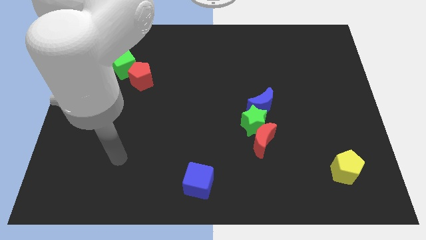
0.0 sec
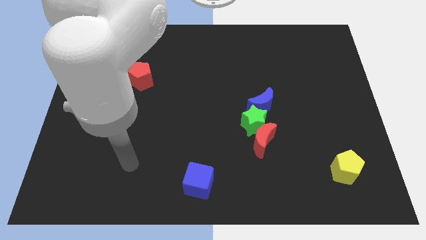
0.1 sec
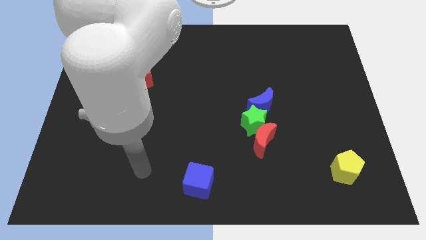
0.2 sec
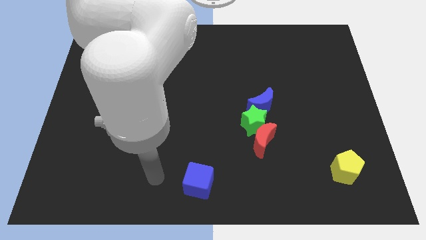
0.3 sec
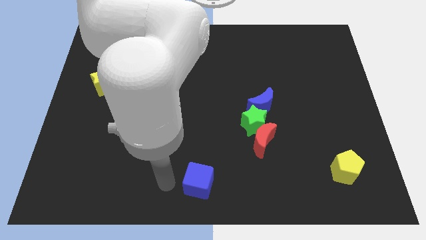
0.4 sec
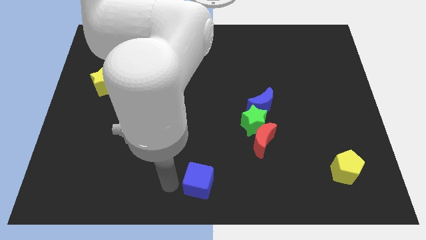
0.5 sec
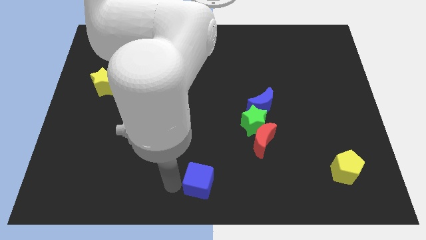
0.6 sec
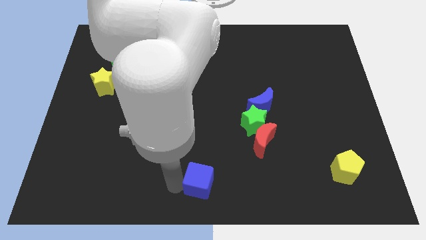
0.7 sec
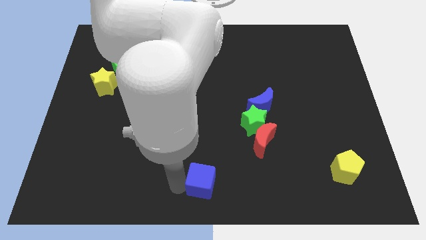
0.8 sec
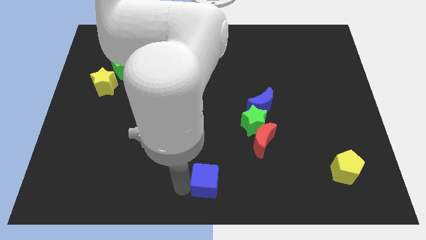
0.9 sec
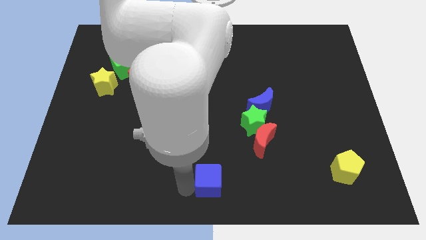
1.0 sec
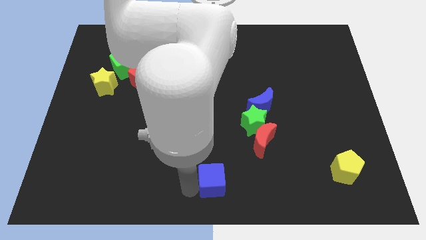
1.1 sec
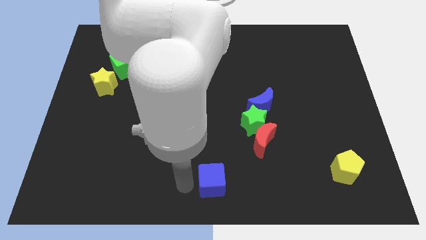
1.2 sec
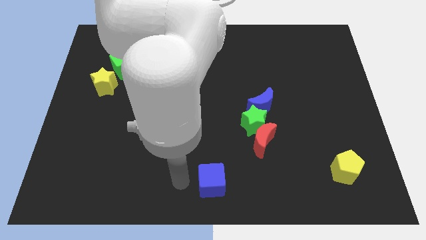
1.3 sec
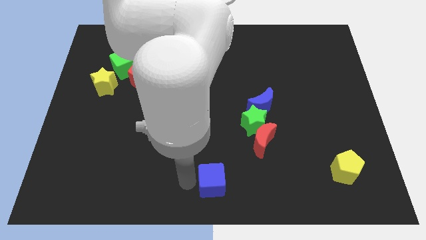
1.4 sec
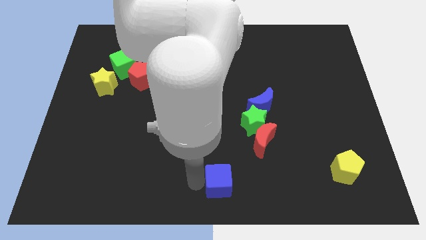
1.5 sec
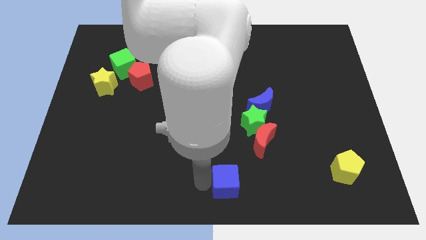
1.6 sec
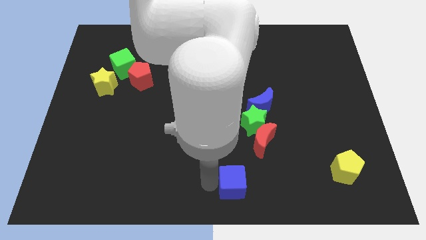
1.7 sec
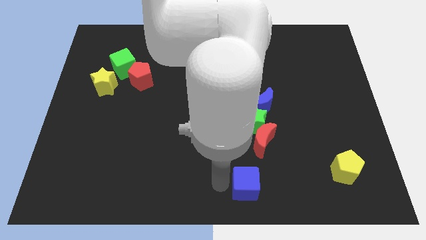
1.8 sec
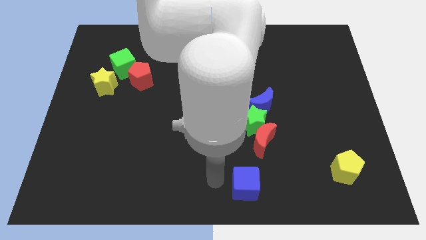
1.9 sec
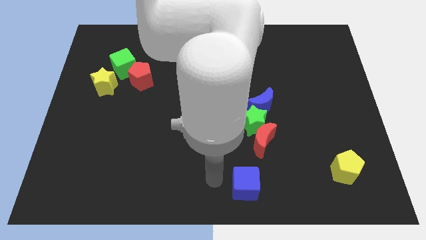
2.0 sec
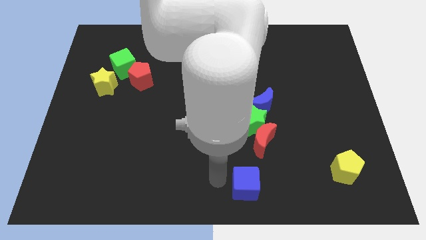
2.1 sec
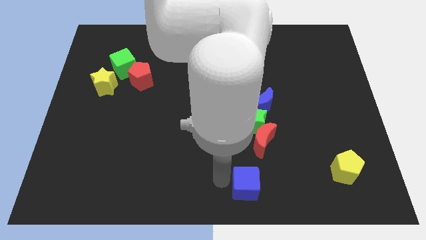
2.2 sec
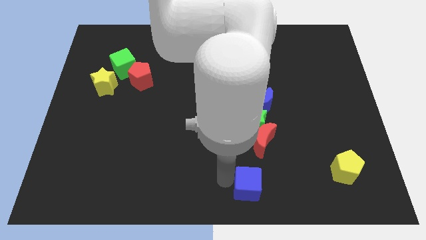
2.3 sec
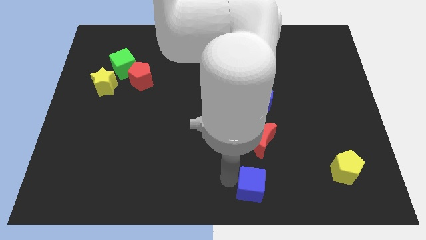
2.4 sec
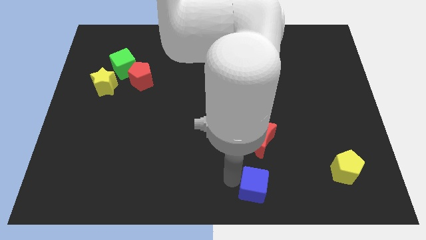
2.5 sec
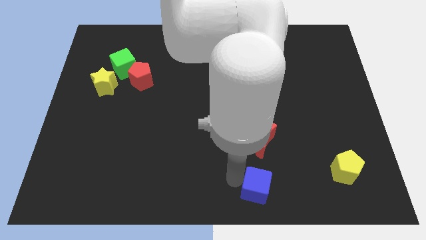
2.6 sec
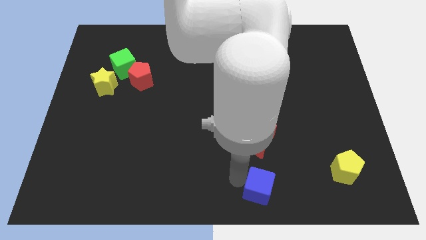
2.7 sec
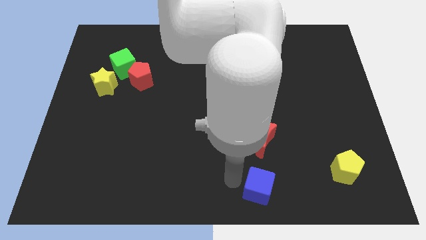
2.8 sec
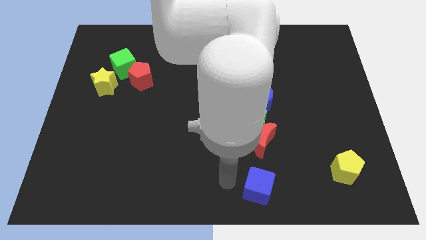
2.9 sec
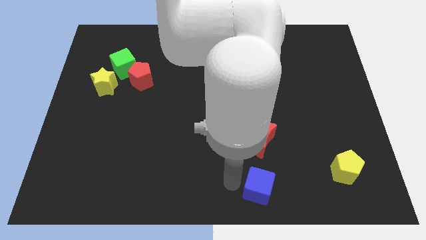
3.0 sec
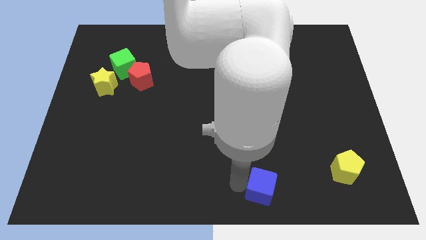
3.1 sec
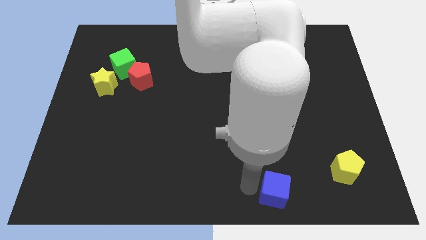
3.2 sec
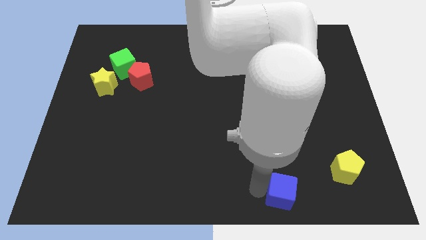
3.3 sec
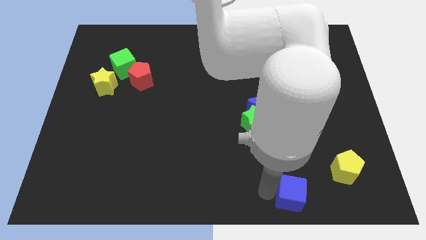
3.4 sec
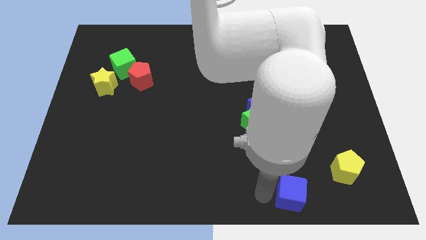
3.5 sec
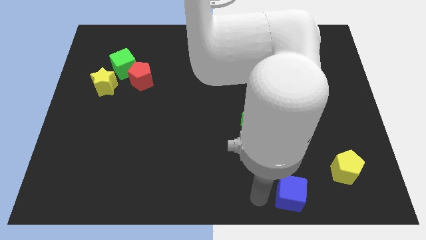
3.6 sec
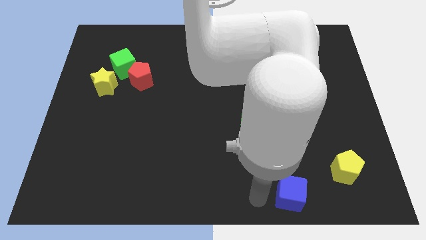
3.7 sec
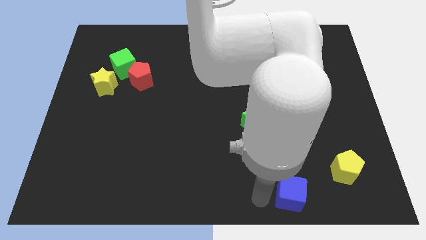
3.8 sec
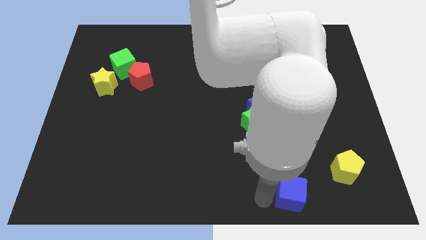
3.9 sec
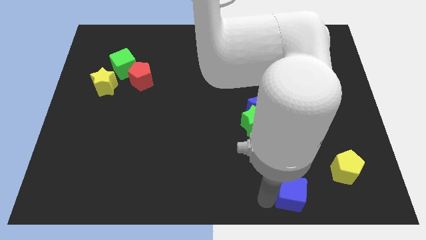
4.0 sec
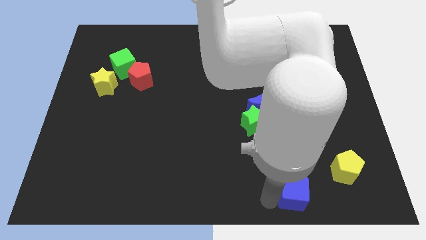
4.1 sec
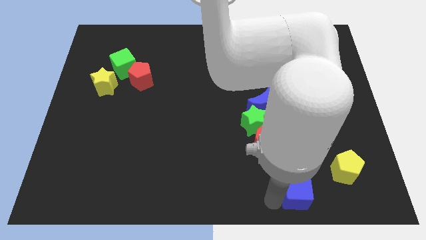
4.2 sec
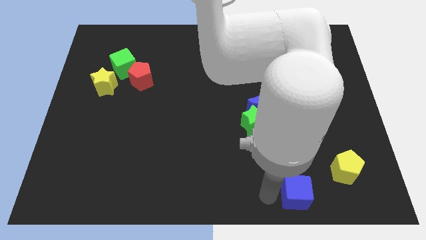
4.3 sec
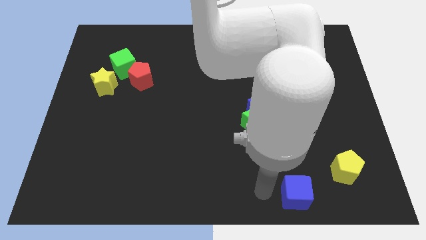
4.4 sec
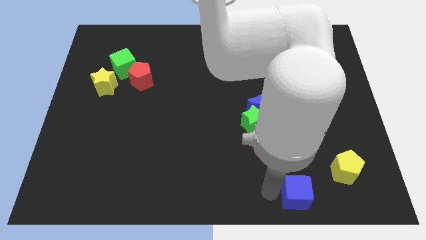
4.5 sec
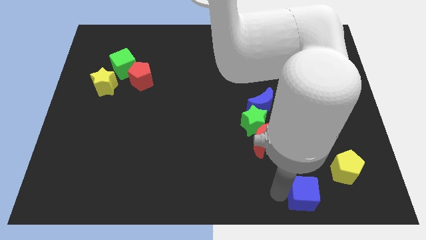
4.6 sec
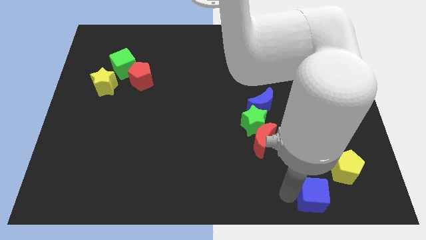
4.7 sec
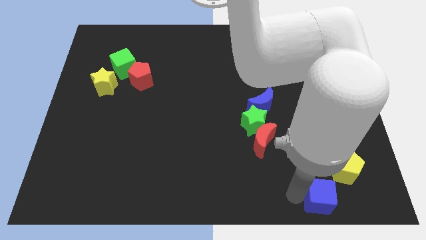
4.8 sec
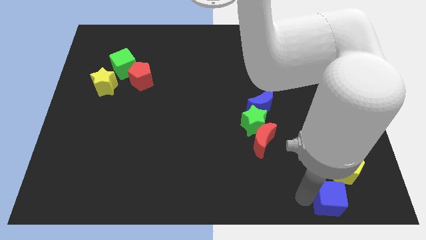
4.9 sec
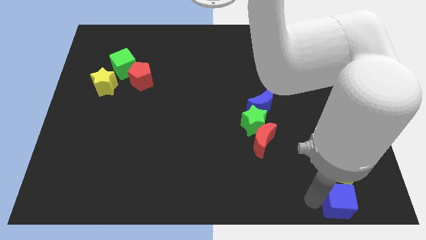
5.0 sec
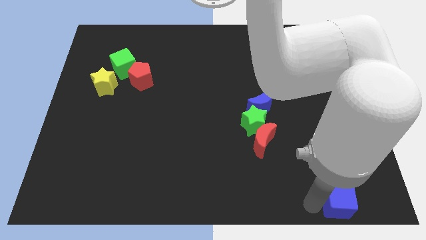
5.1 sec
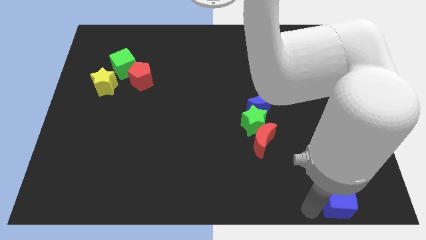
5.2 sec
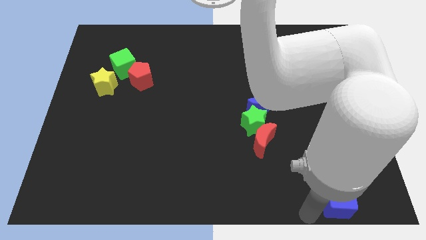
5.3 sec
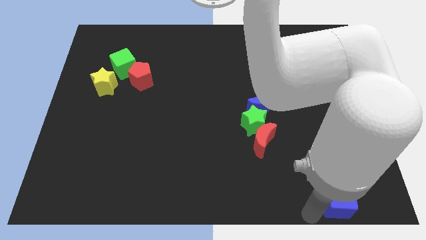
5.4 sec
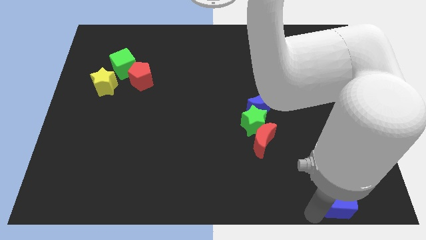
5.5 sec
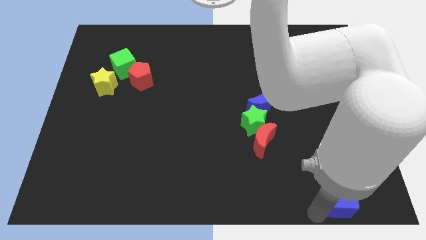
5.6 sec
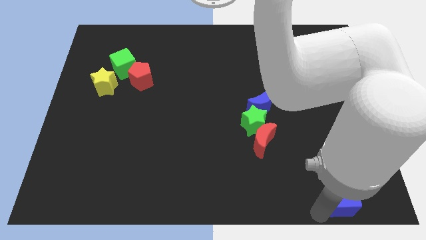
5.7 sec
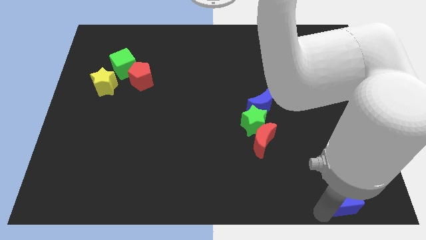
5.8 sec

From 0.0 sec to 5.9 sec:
put the blue cube to the bottom right

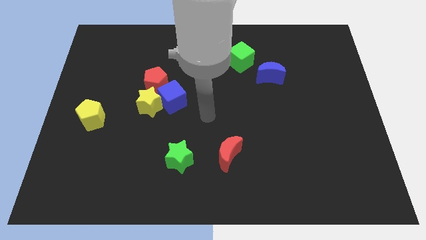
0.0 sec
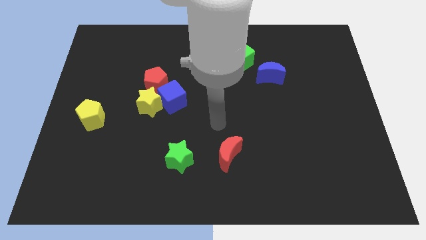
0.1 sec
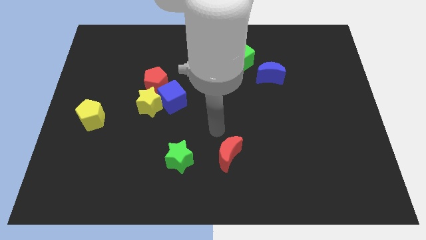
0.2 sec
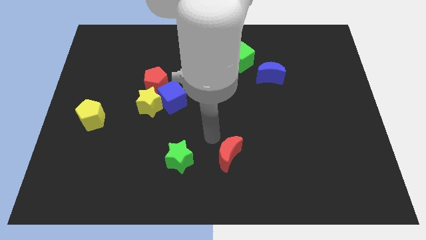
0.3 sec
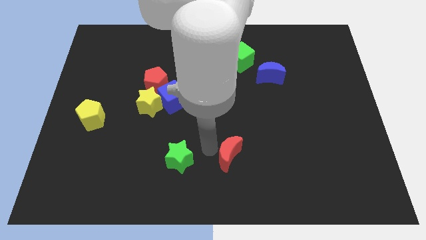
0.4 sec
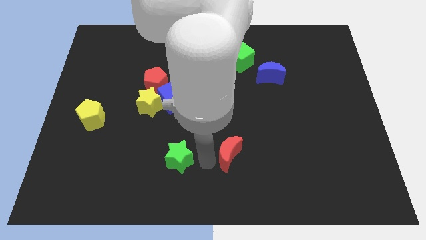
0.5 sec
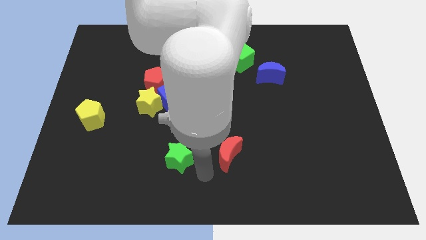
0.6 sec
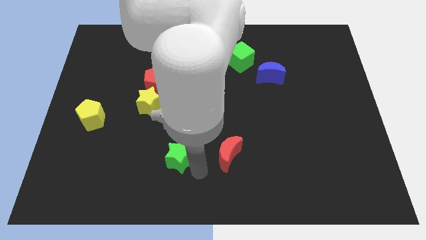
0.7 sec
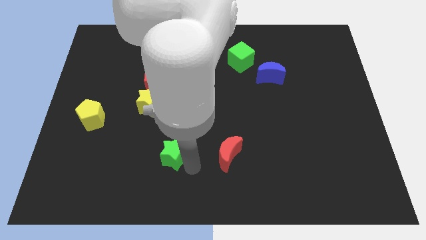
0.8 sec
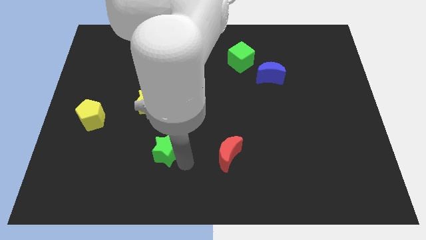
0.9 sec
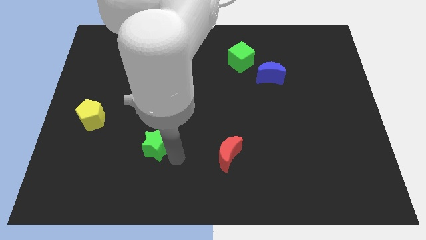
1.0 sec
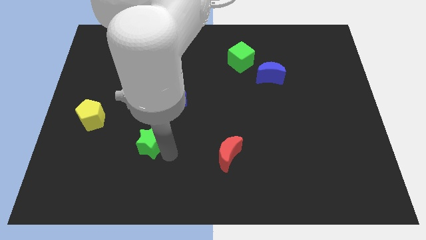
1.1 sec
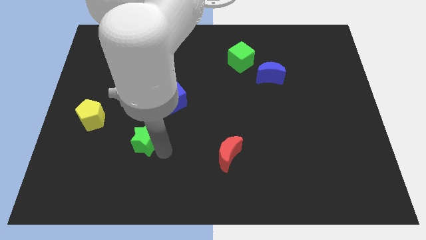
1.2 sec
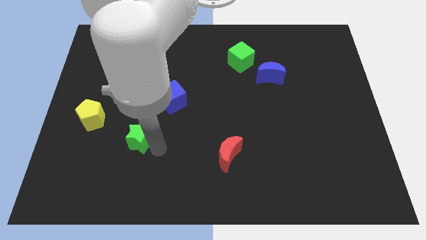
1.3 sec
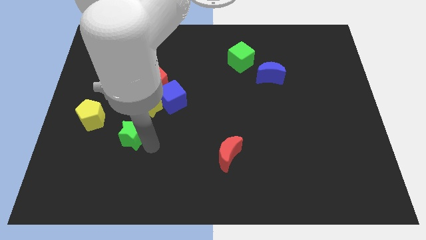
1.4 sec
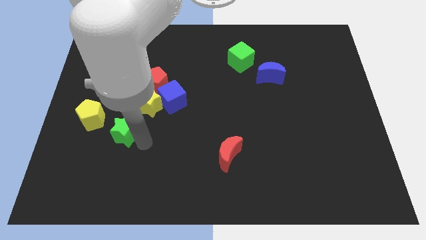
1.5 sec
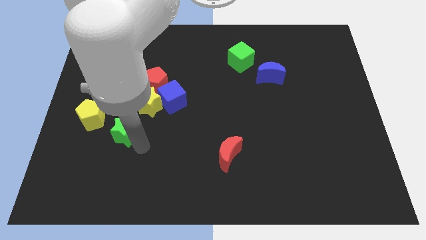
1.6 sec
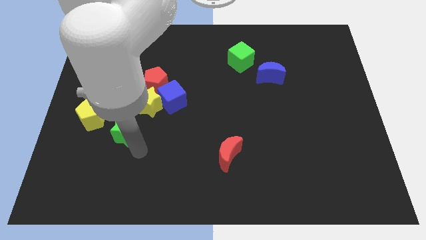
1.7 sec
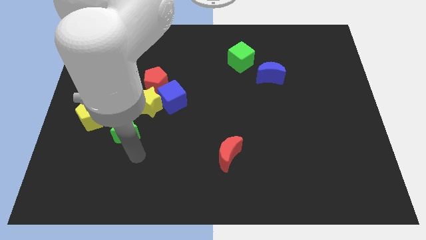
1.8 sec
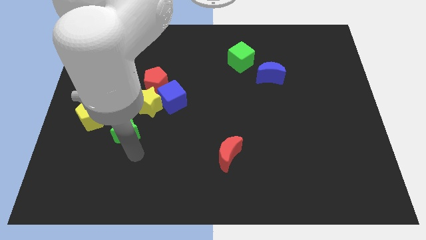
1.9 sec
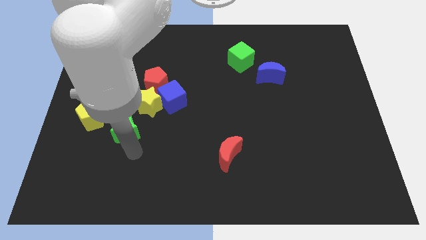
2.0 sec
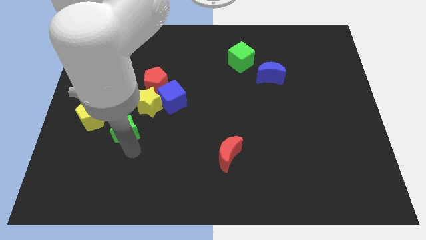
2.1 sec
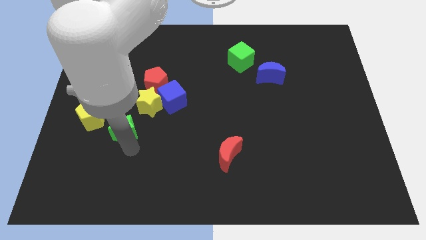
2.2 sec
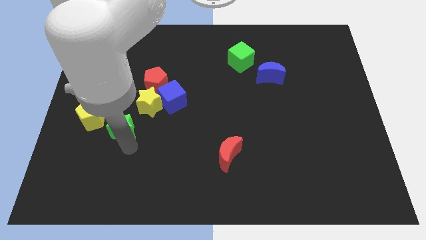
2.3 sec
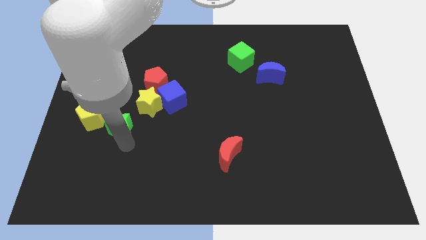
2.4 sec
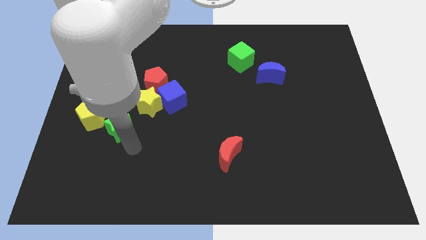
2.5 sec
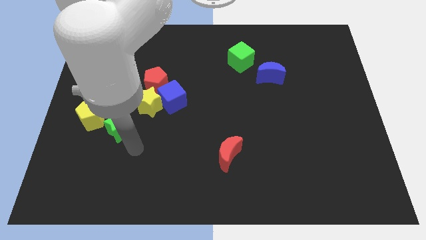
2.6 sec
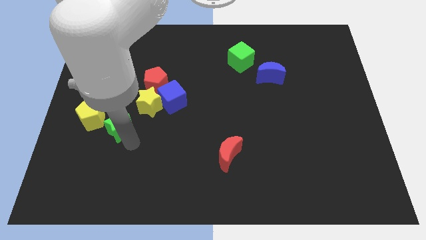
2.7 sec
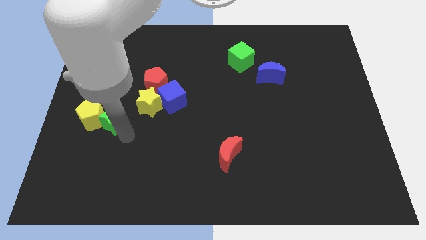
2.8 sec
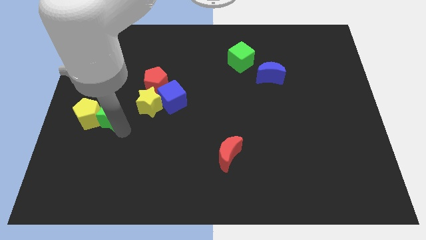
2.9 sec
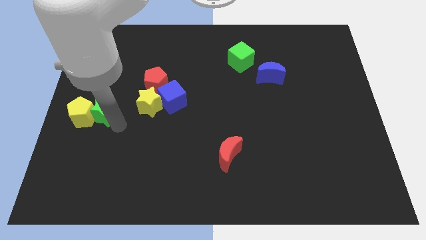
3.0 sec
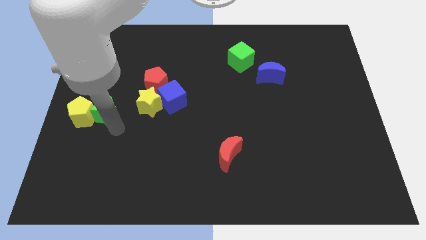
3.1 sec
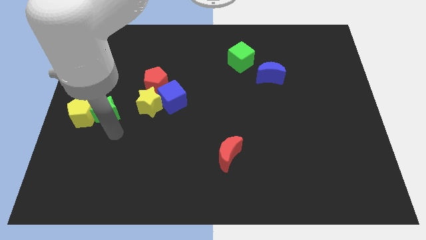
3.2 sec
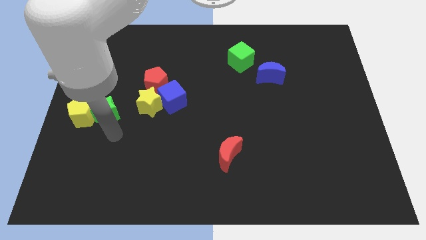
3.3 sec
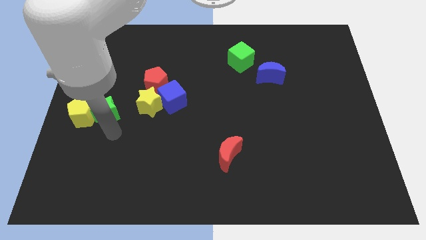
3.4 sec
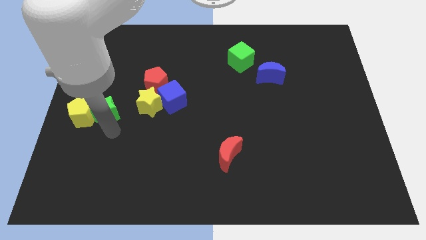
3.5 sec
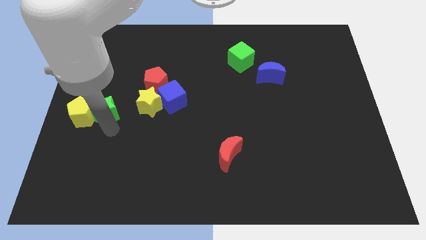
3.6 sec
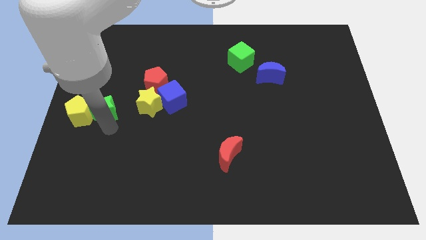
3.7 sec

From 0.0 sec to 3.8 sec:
slide the green star to the center left
